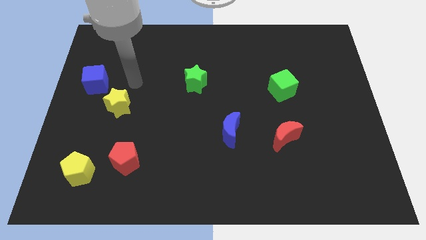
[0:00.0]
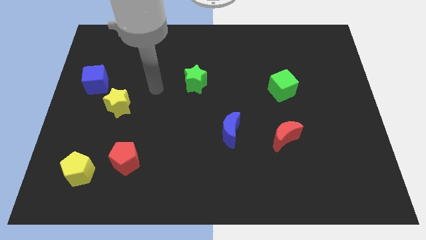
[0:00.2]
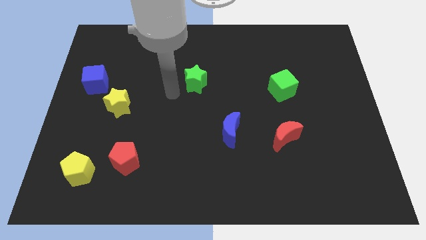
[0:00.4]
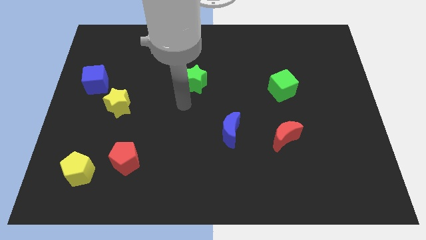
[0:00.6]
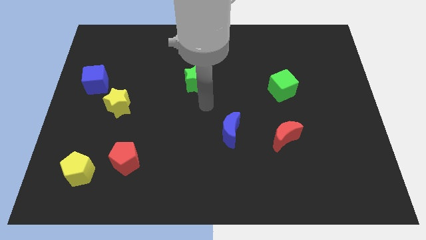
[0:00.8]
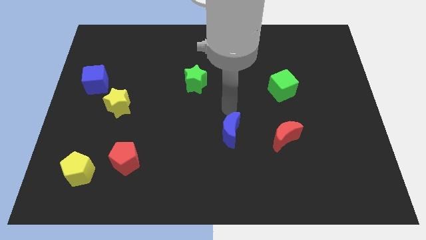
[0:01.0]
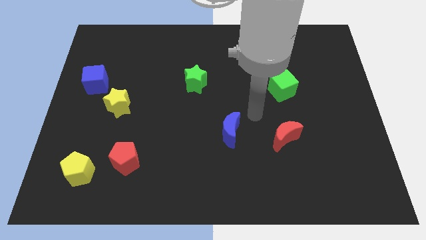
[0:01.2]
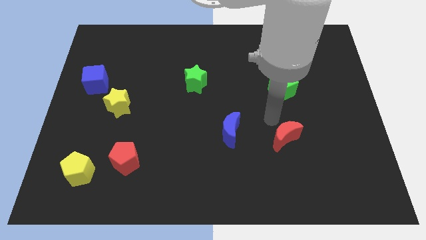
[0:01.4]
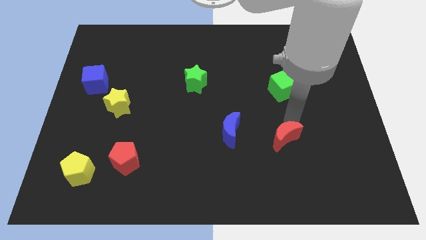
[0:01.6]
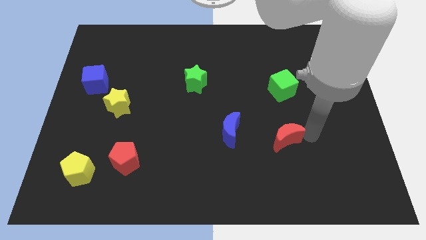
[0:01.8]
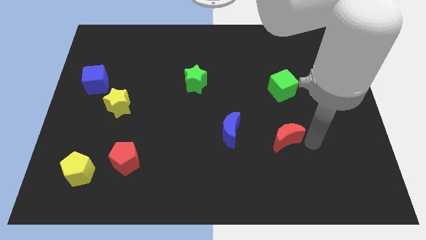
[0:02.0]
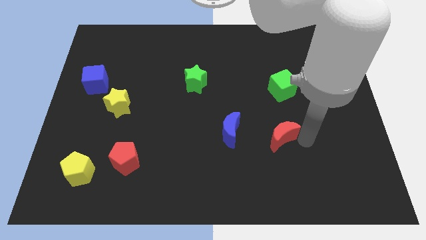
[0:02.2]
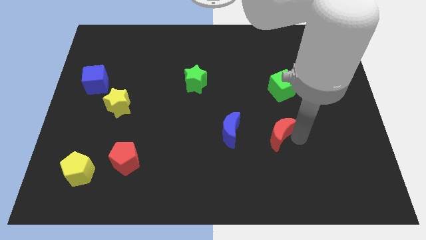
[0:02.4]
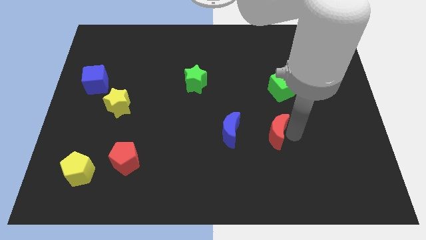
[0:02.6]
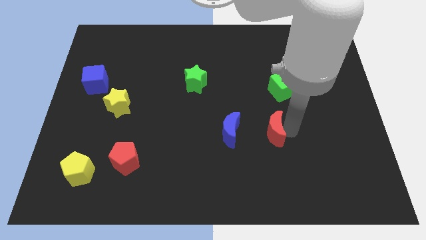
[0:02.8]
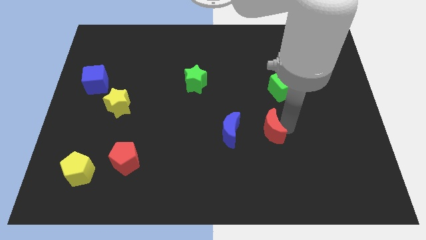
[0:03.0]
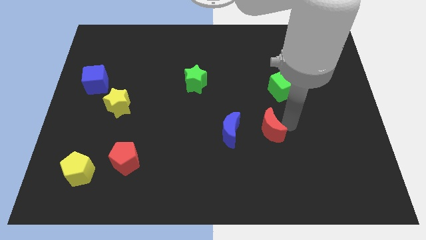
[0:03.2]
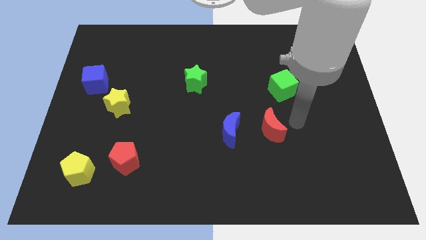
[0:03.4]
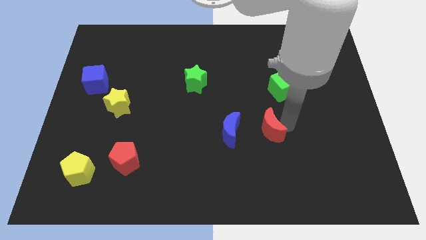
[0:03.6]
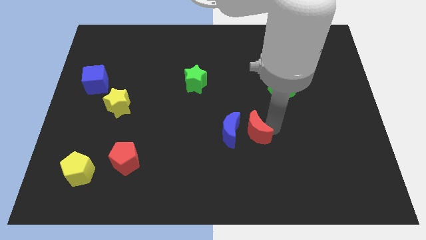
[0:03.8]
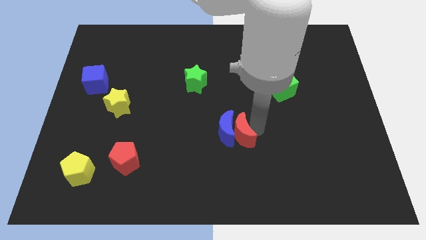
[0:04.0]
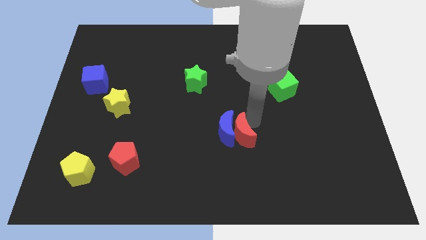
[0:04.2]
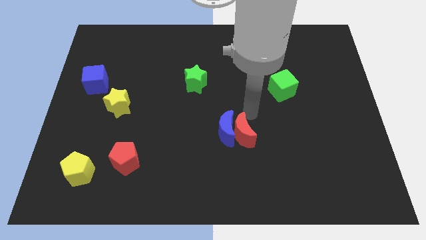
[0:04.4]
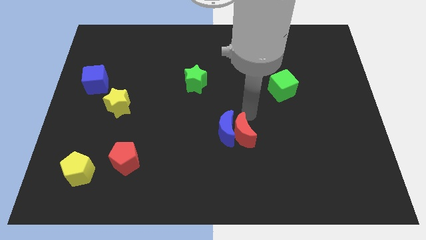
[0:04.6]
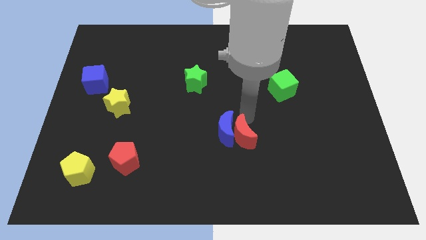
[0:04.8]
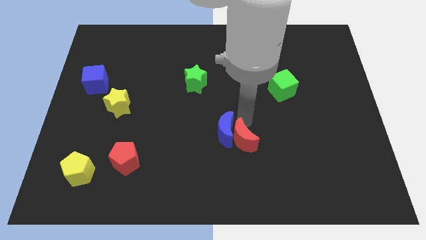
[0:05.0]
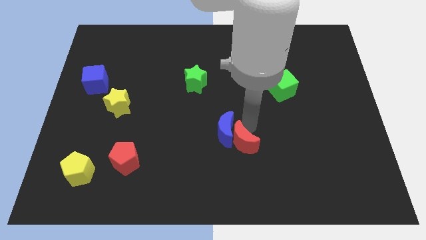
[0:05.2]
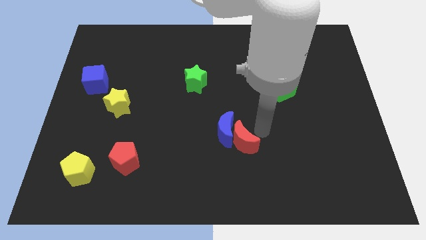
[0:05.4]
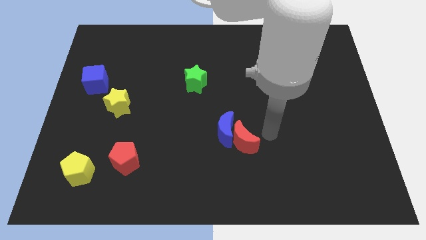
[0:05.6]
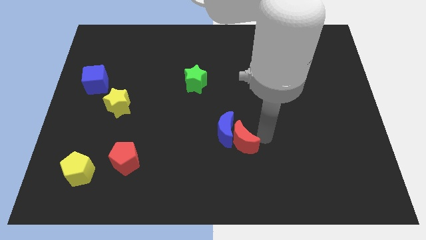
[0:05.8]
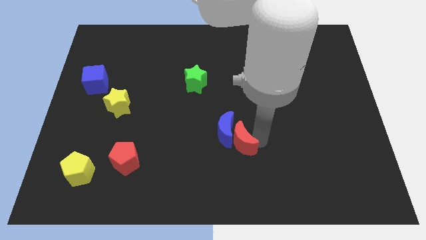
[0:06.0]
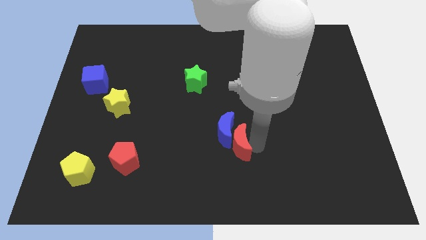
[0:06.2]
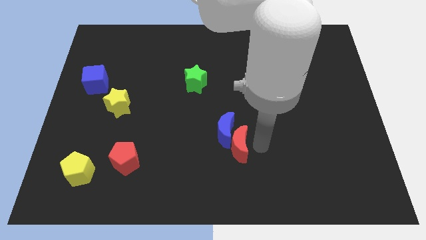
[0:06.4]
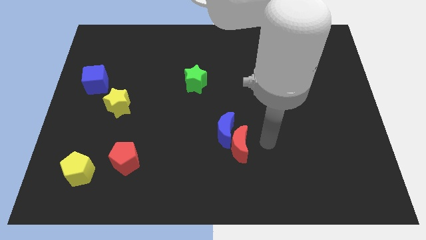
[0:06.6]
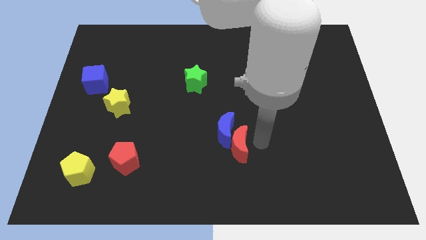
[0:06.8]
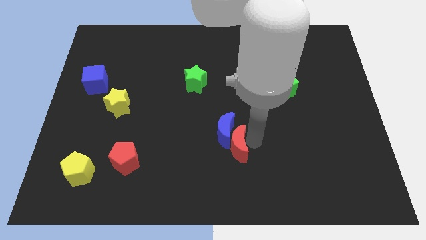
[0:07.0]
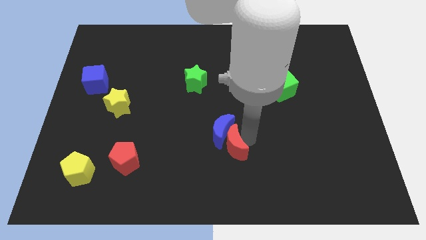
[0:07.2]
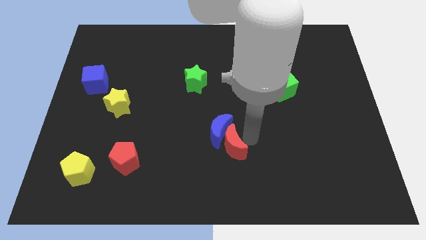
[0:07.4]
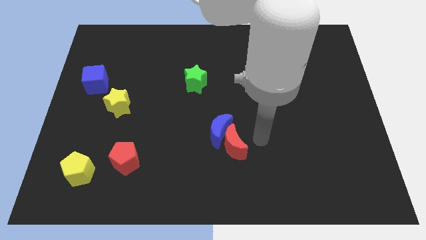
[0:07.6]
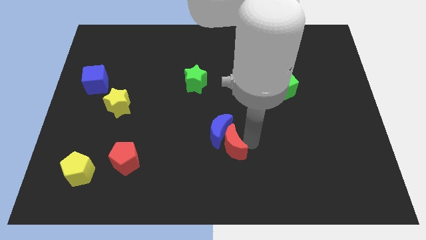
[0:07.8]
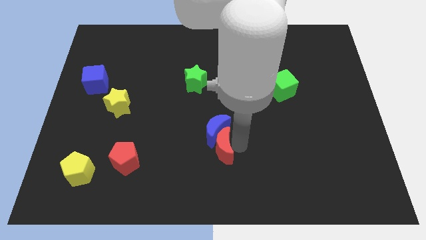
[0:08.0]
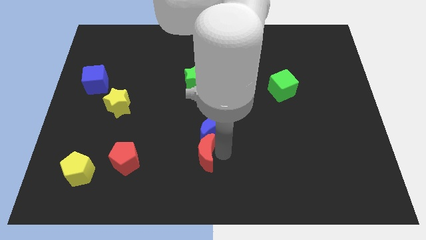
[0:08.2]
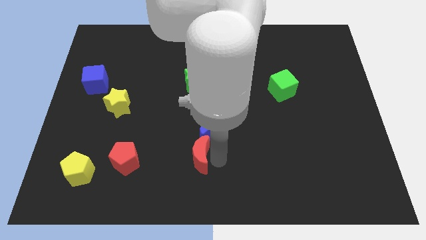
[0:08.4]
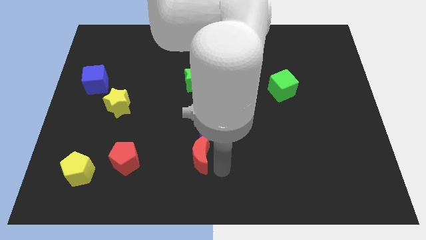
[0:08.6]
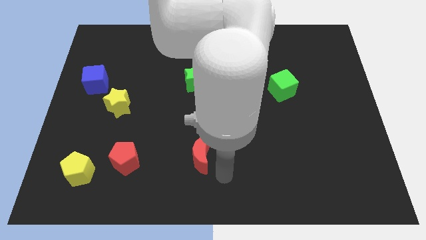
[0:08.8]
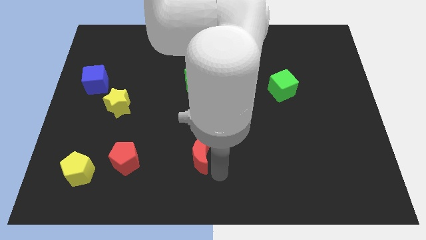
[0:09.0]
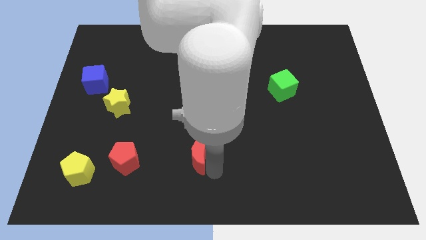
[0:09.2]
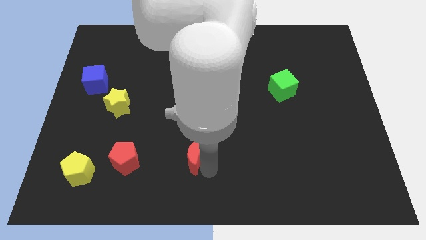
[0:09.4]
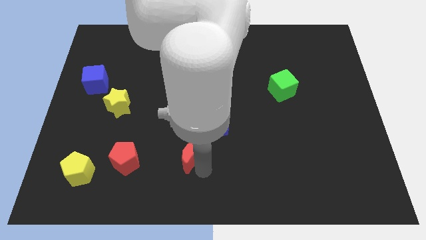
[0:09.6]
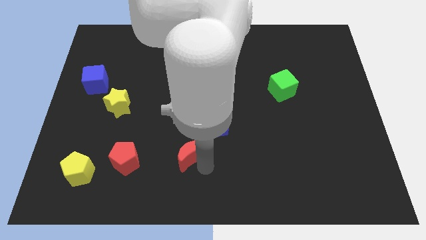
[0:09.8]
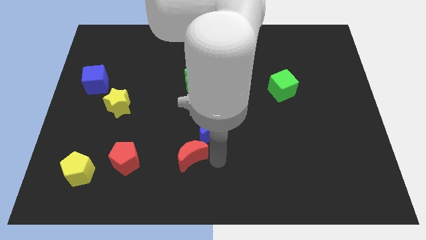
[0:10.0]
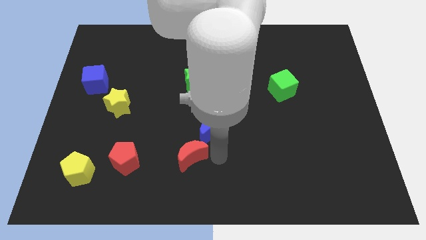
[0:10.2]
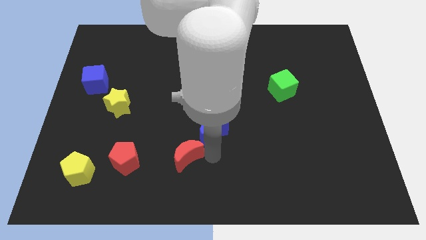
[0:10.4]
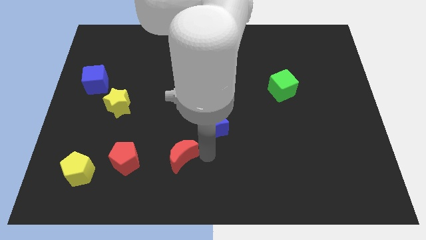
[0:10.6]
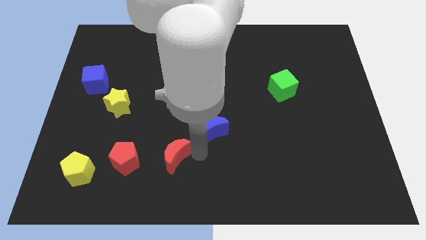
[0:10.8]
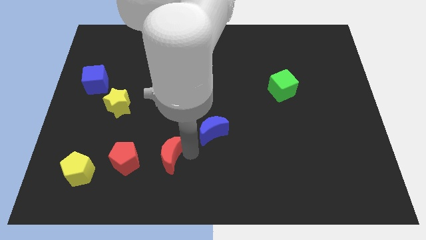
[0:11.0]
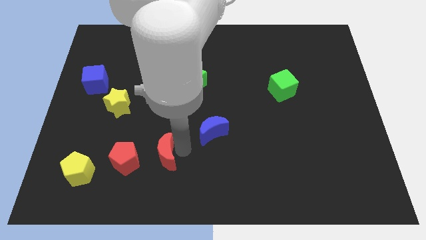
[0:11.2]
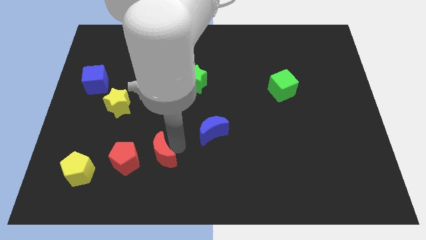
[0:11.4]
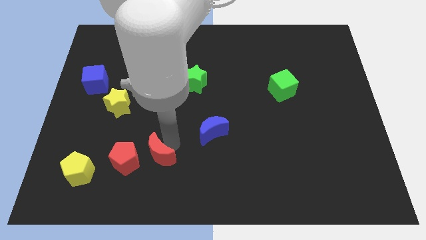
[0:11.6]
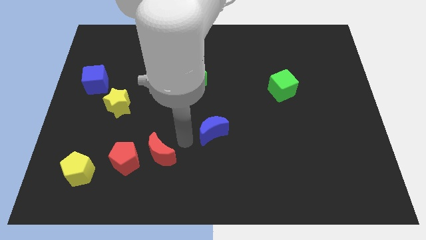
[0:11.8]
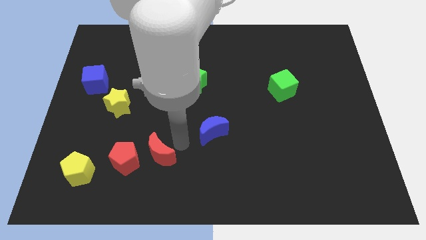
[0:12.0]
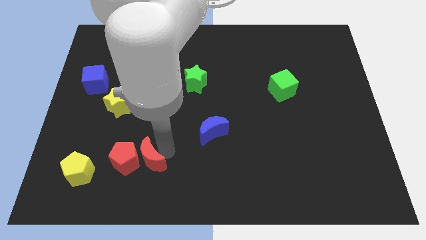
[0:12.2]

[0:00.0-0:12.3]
move the red moon to the right side of the yellow pentagon

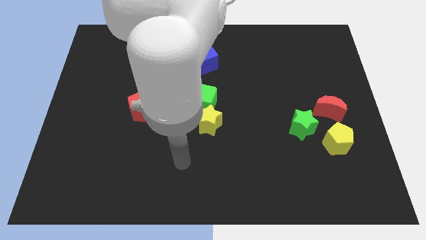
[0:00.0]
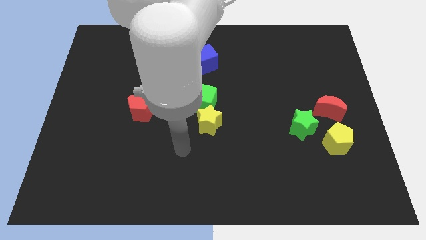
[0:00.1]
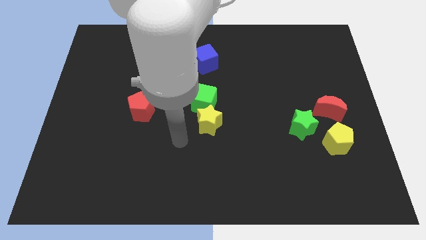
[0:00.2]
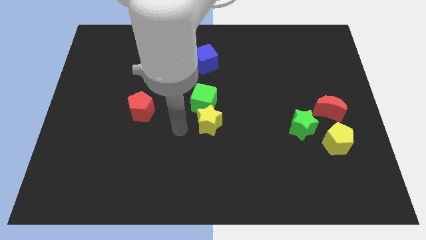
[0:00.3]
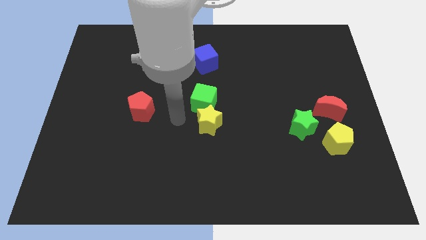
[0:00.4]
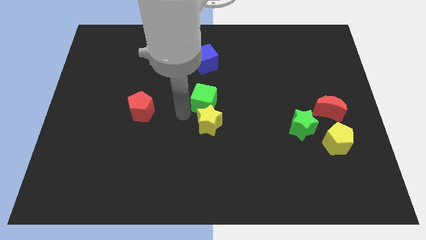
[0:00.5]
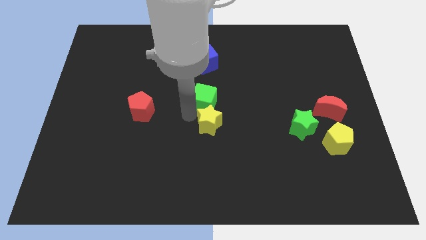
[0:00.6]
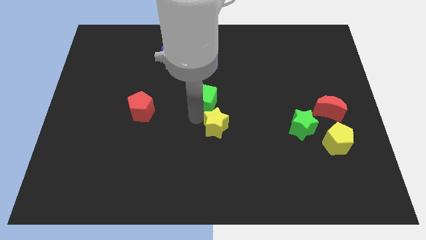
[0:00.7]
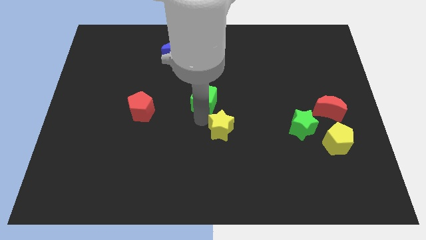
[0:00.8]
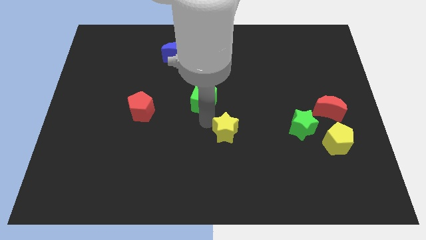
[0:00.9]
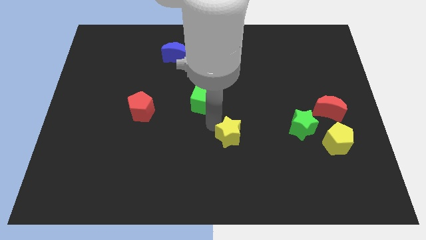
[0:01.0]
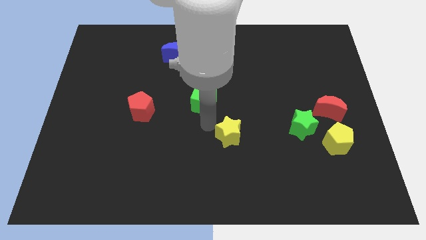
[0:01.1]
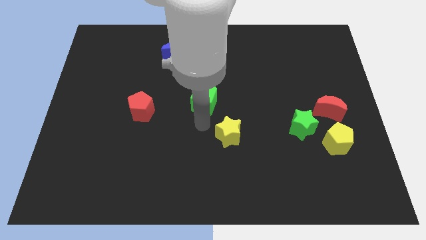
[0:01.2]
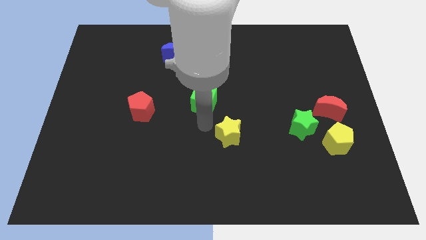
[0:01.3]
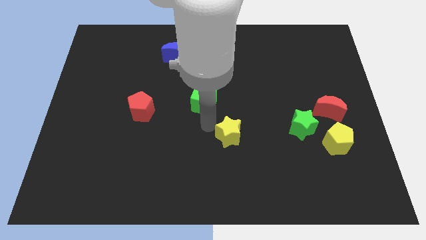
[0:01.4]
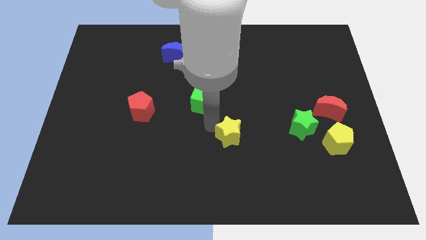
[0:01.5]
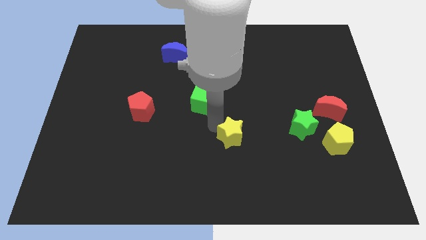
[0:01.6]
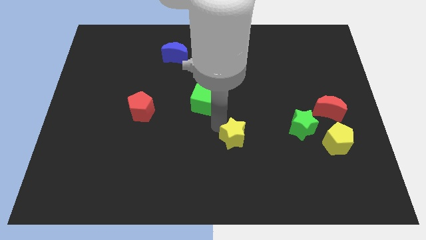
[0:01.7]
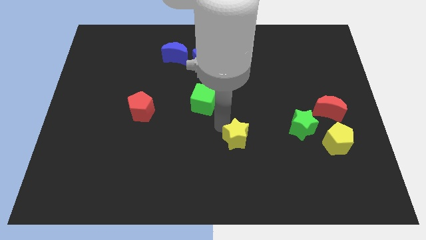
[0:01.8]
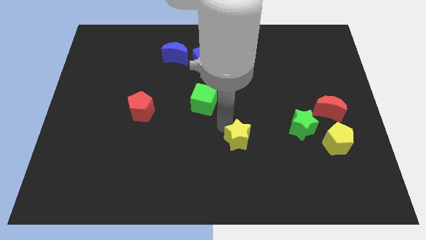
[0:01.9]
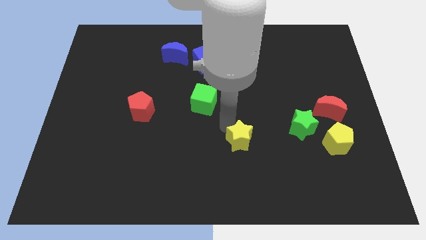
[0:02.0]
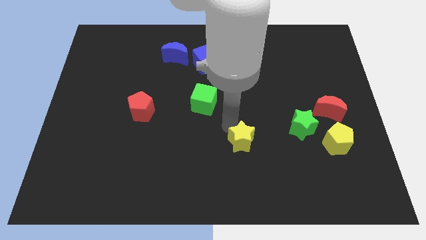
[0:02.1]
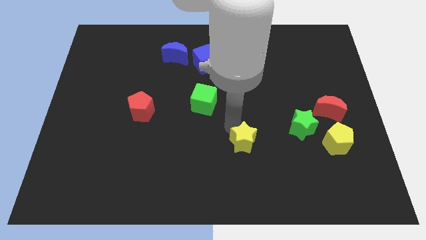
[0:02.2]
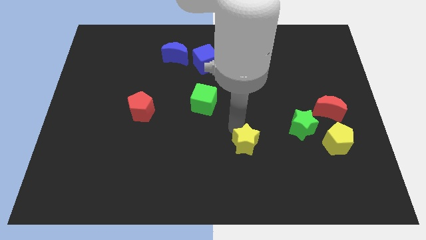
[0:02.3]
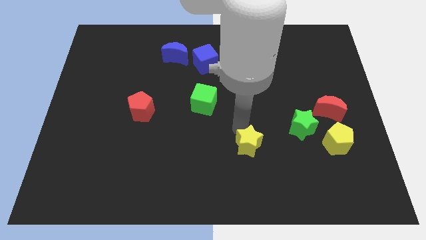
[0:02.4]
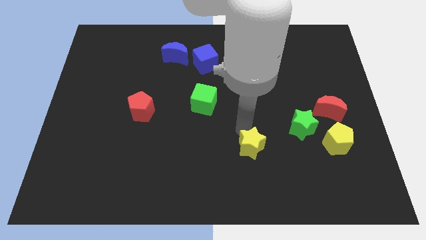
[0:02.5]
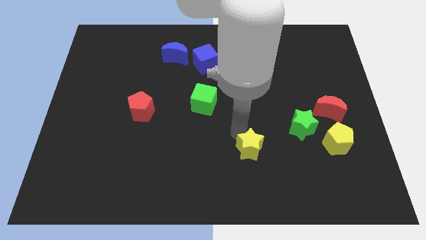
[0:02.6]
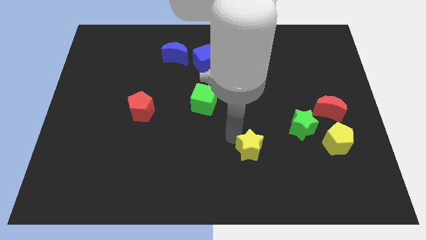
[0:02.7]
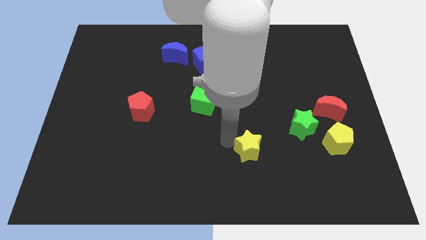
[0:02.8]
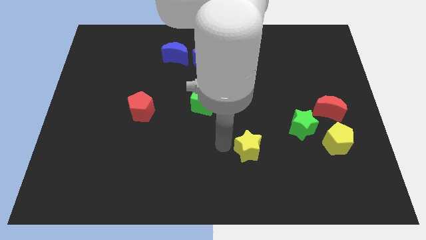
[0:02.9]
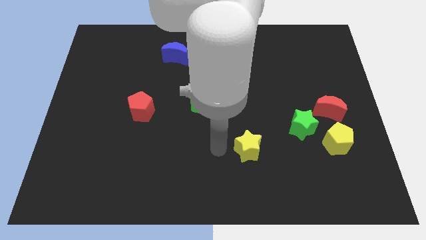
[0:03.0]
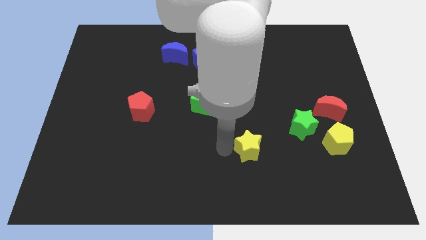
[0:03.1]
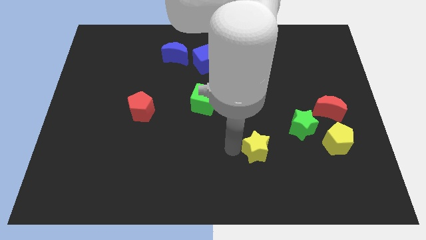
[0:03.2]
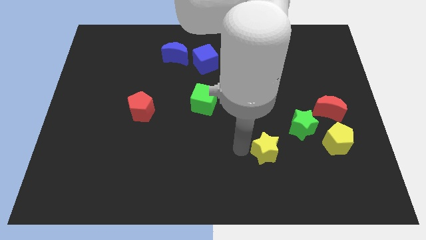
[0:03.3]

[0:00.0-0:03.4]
put the yellow star diagonally down and to the left of the green star
